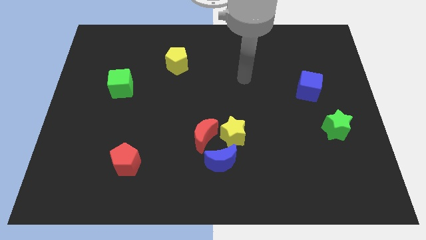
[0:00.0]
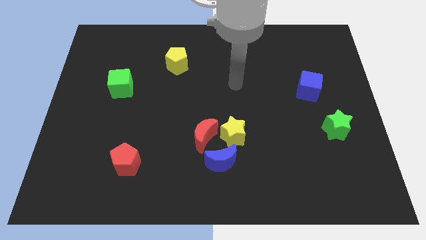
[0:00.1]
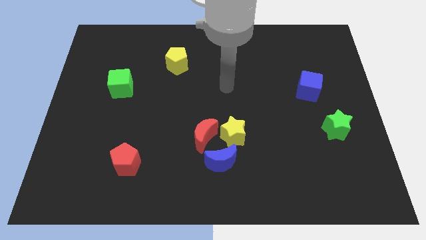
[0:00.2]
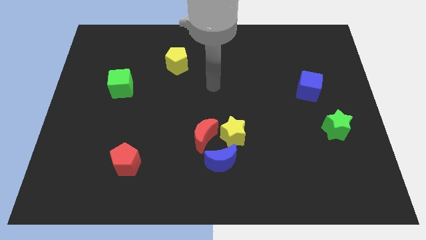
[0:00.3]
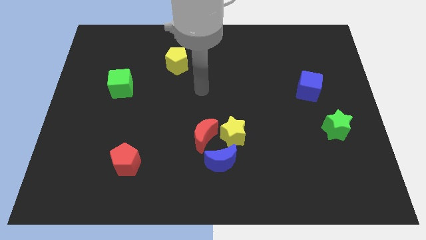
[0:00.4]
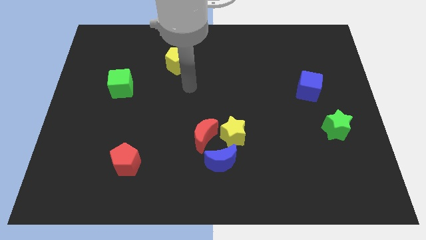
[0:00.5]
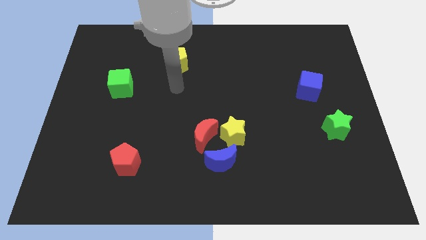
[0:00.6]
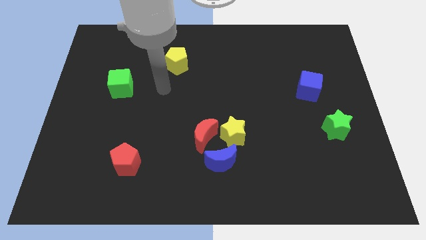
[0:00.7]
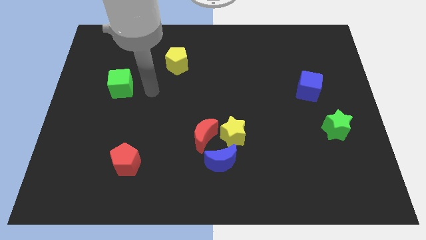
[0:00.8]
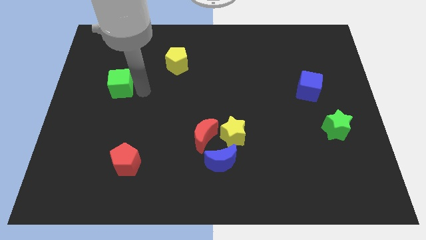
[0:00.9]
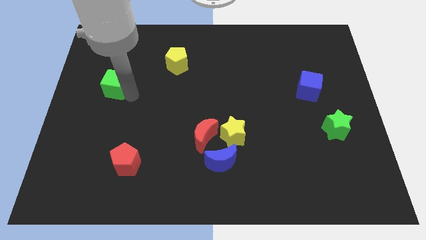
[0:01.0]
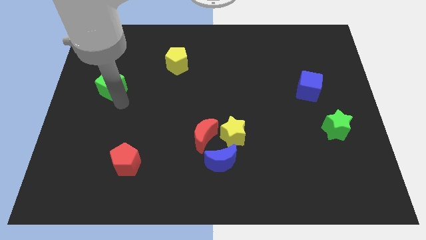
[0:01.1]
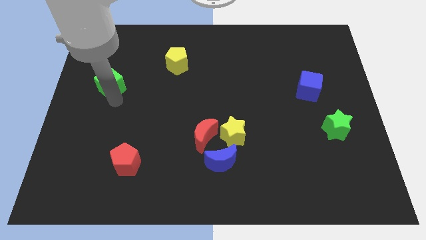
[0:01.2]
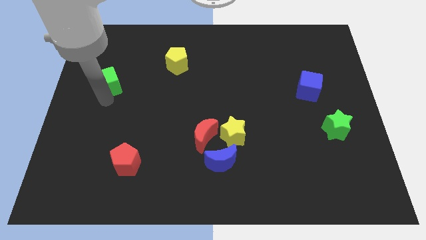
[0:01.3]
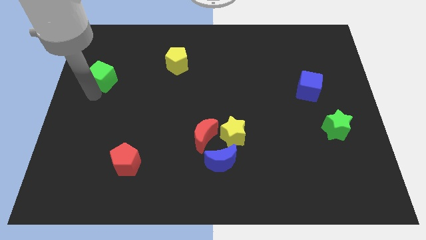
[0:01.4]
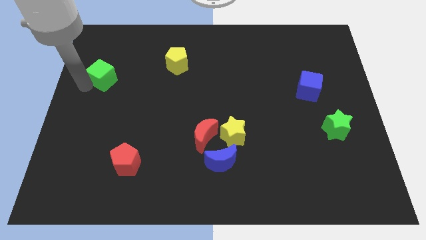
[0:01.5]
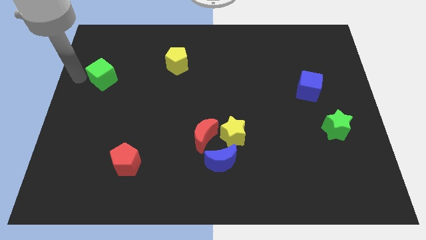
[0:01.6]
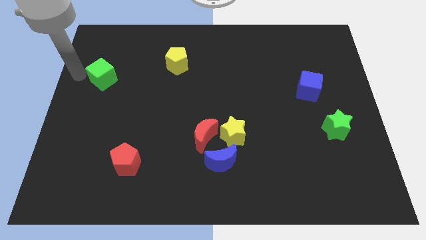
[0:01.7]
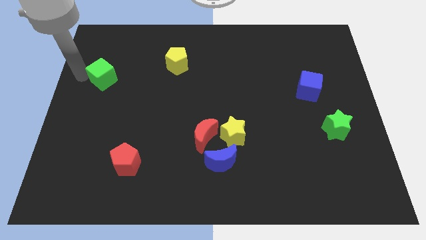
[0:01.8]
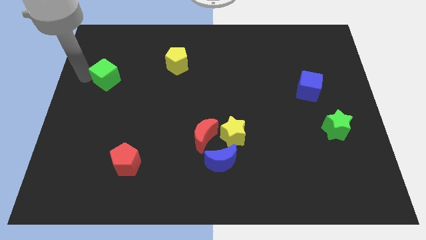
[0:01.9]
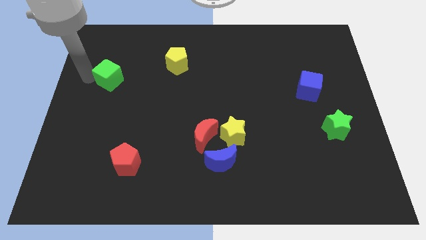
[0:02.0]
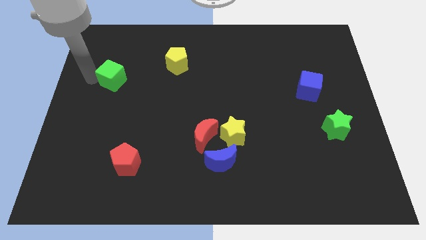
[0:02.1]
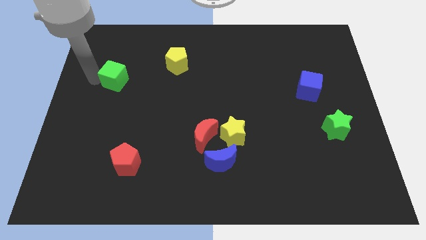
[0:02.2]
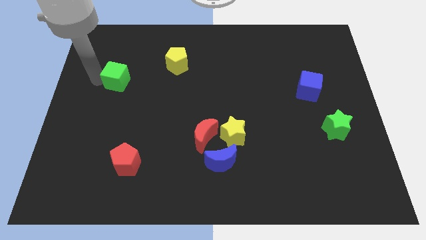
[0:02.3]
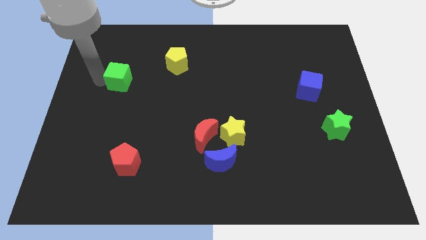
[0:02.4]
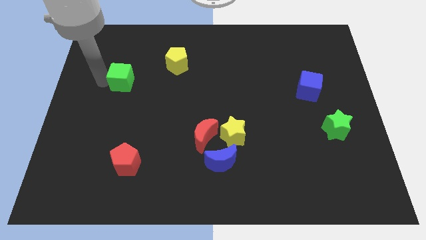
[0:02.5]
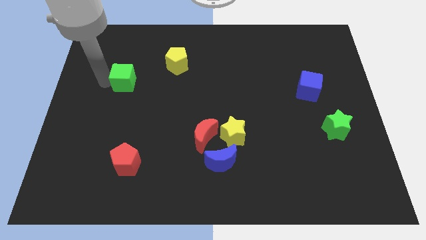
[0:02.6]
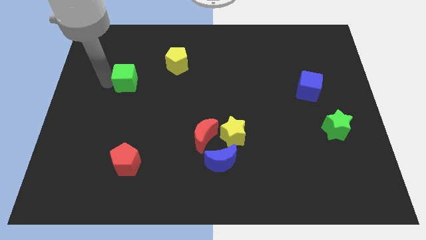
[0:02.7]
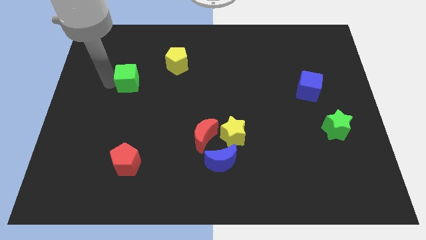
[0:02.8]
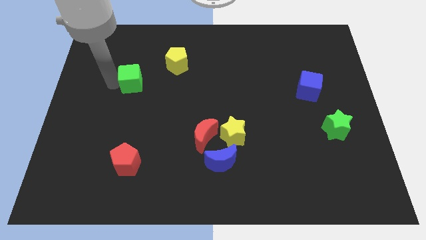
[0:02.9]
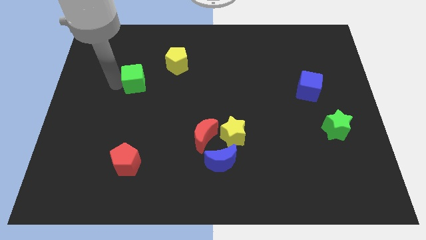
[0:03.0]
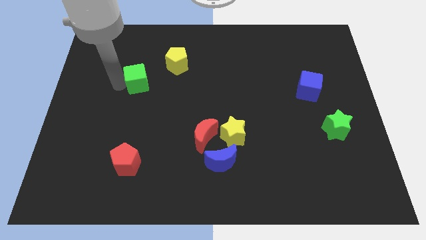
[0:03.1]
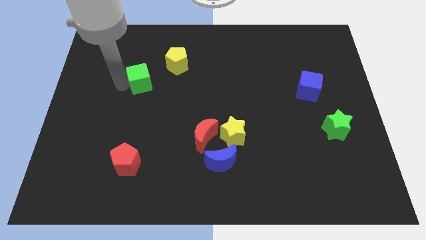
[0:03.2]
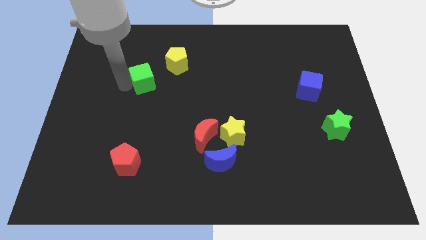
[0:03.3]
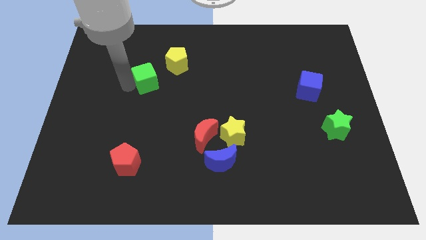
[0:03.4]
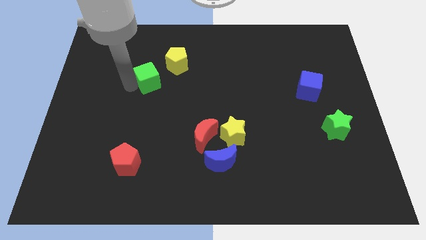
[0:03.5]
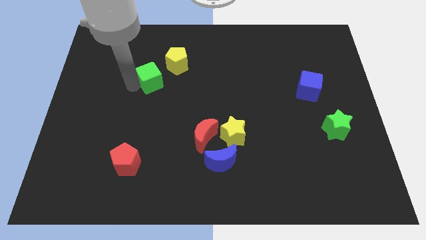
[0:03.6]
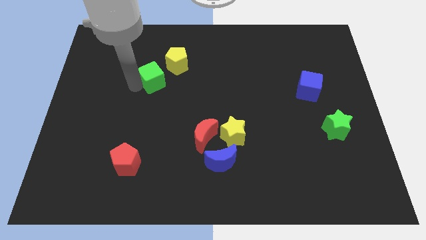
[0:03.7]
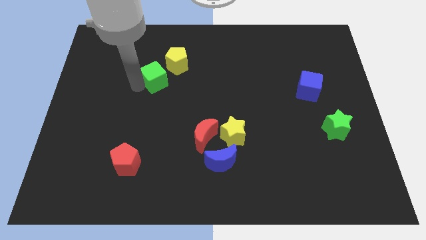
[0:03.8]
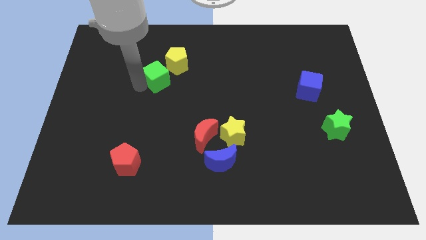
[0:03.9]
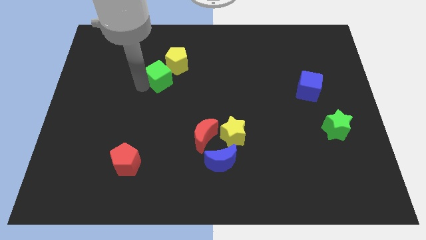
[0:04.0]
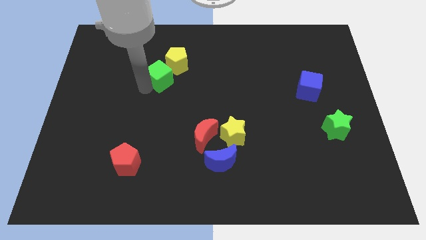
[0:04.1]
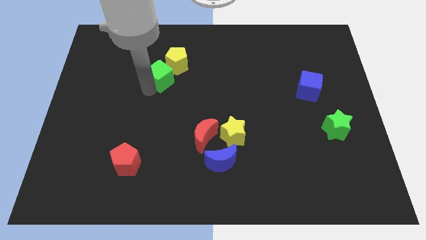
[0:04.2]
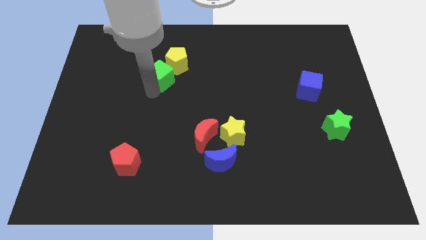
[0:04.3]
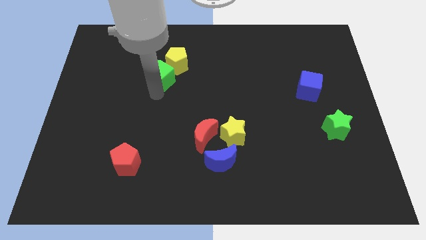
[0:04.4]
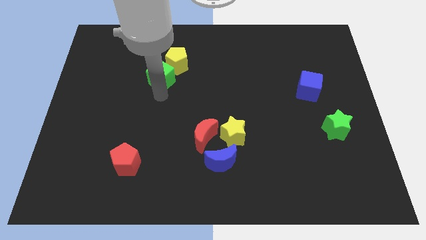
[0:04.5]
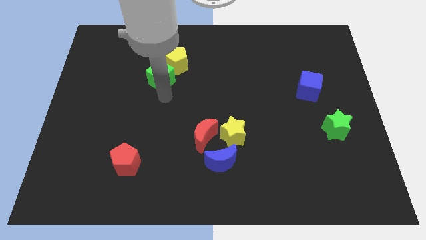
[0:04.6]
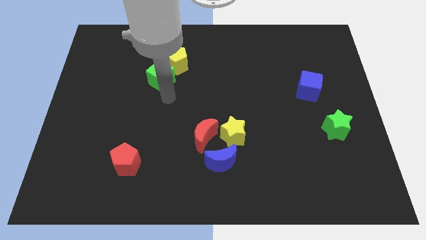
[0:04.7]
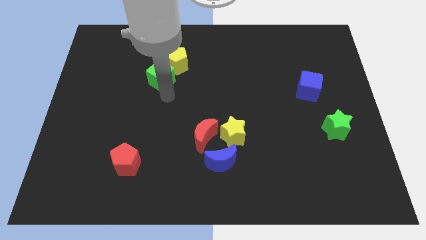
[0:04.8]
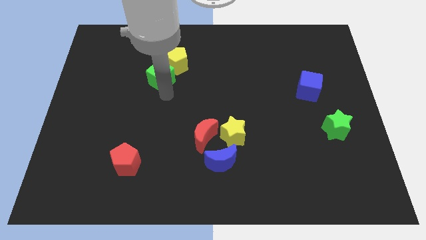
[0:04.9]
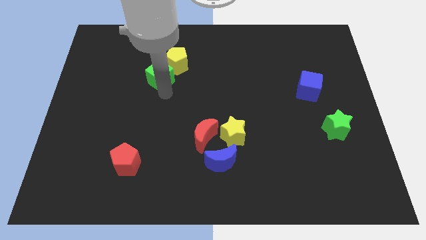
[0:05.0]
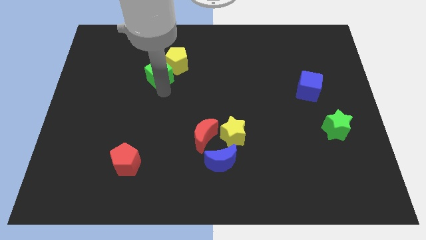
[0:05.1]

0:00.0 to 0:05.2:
put the green cube next to the yellow pentagon

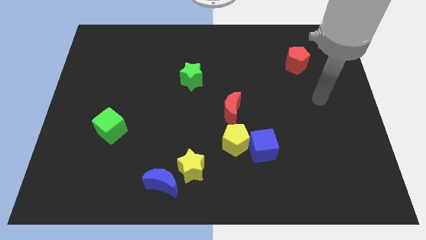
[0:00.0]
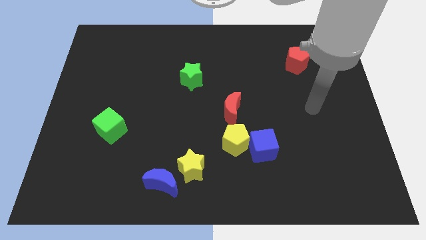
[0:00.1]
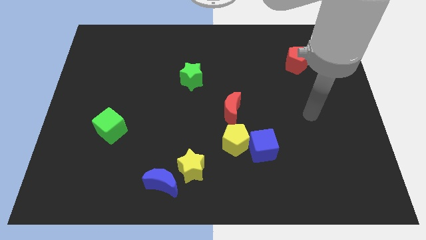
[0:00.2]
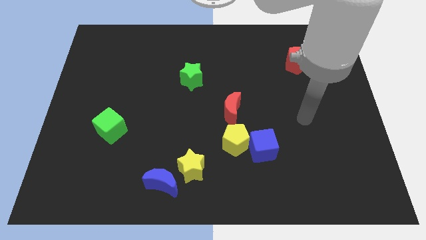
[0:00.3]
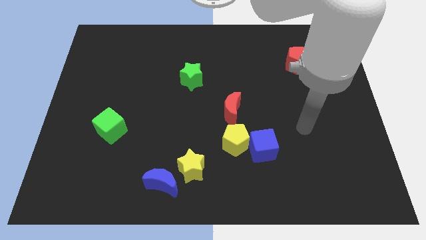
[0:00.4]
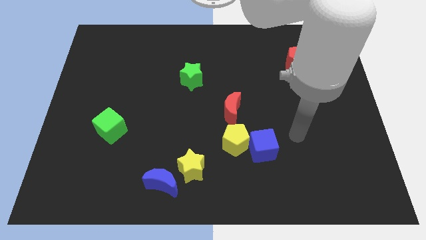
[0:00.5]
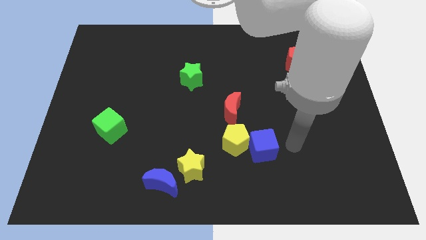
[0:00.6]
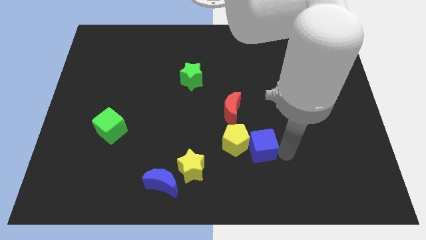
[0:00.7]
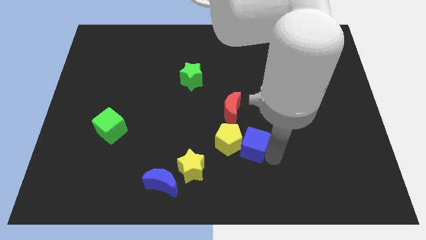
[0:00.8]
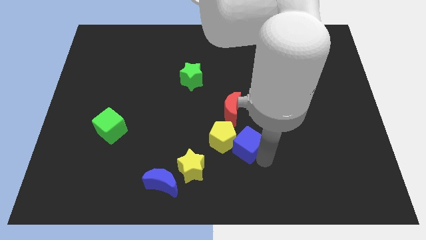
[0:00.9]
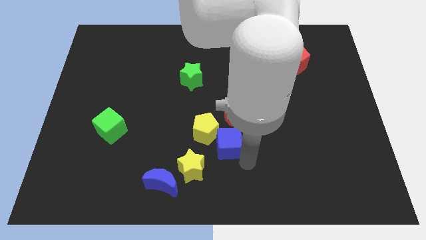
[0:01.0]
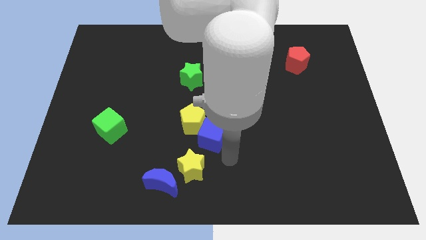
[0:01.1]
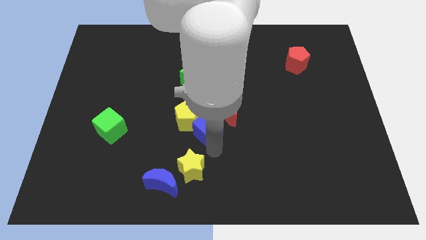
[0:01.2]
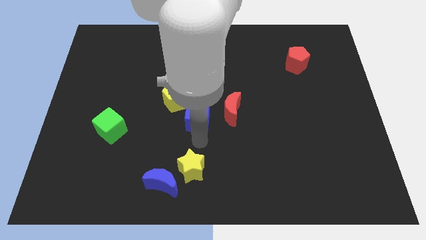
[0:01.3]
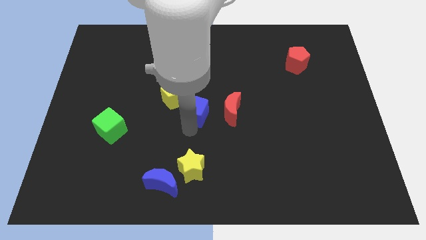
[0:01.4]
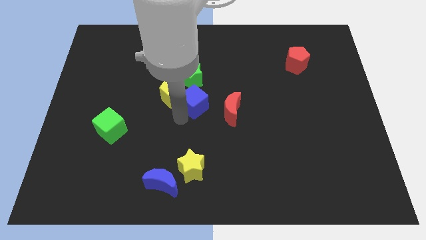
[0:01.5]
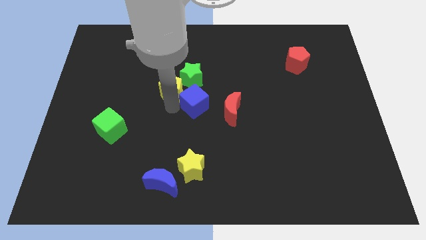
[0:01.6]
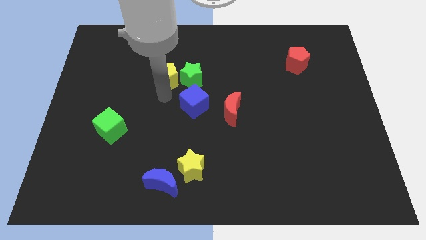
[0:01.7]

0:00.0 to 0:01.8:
slide the yellow pentagon close to the green star
